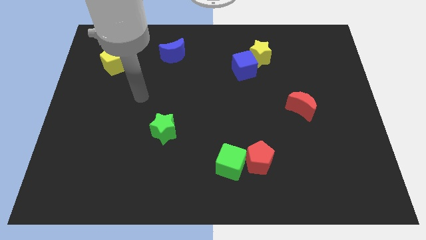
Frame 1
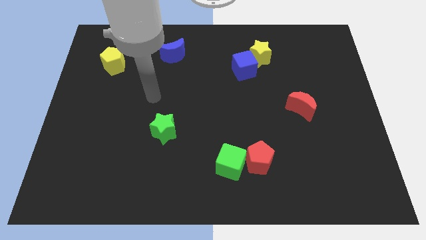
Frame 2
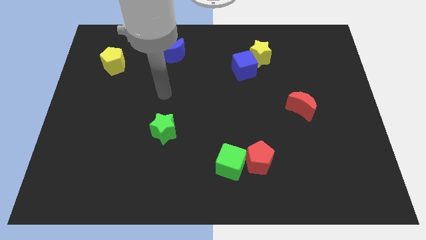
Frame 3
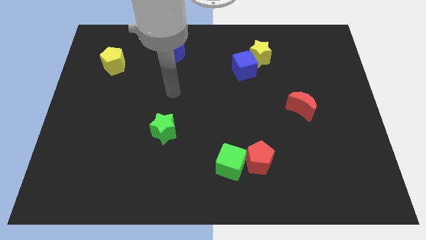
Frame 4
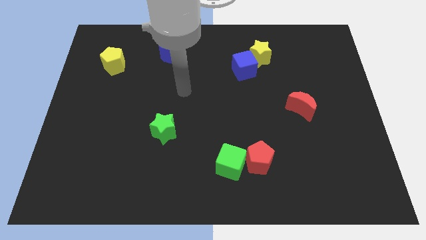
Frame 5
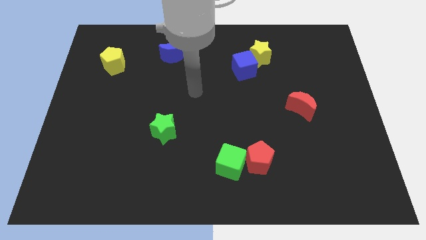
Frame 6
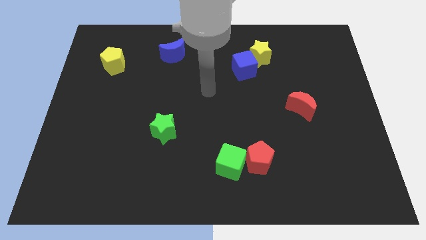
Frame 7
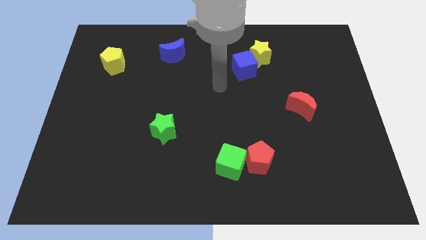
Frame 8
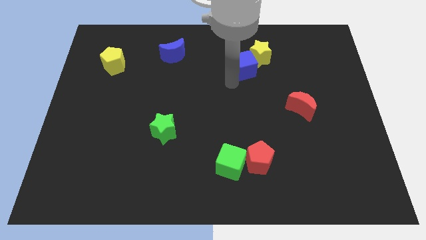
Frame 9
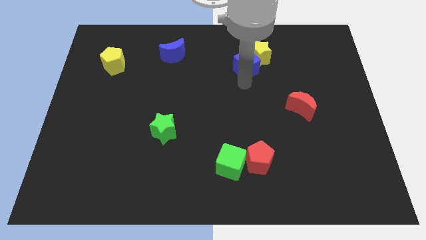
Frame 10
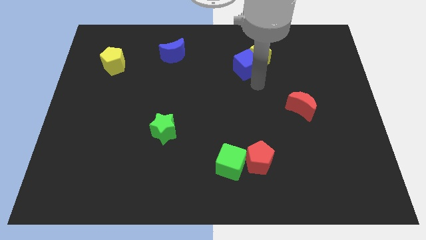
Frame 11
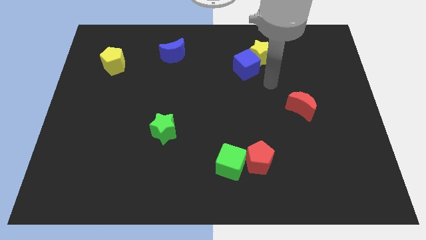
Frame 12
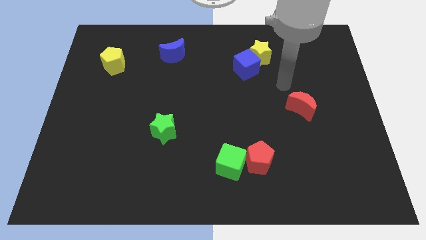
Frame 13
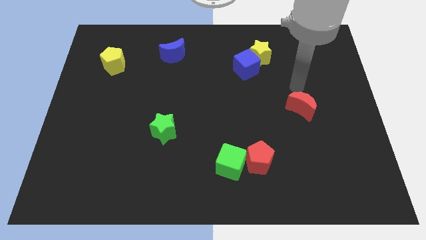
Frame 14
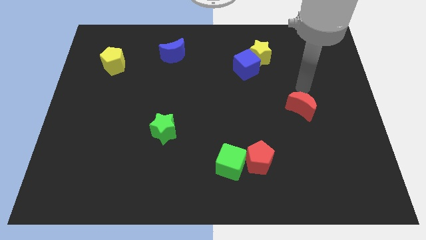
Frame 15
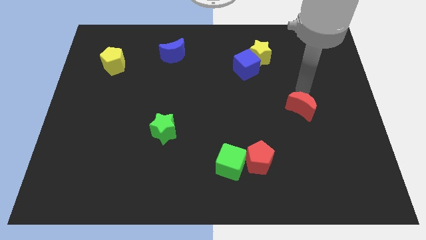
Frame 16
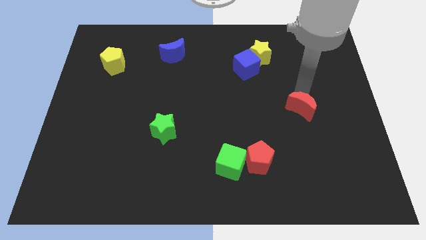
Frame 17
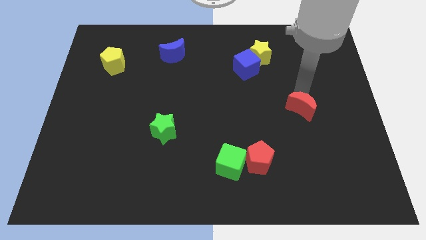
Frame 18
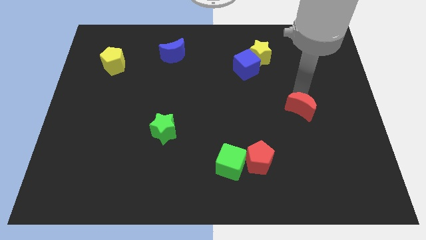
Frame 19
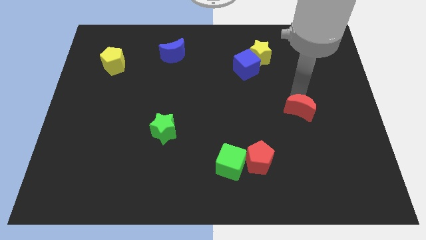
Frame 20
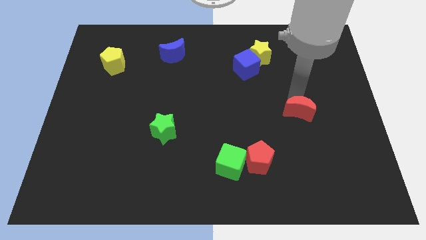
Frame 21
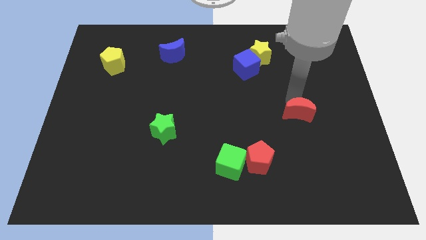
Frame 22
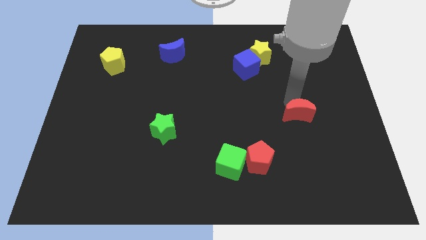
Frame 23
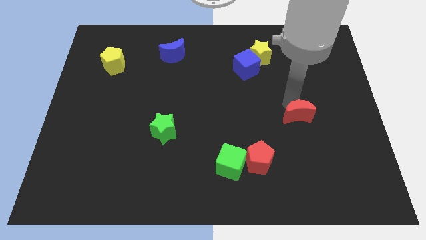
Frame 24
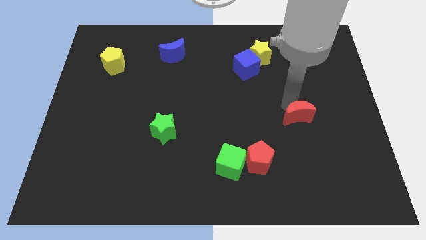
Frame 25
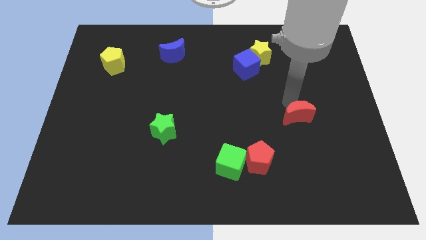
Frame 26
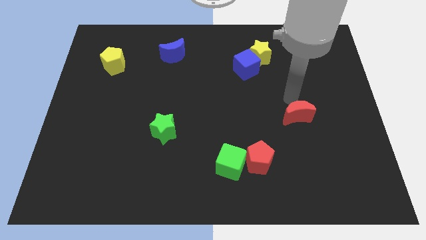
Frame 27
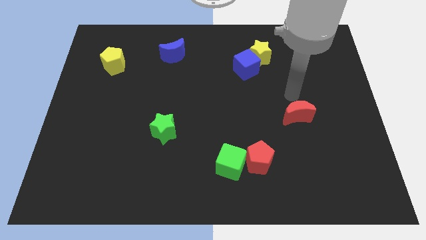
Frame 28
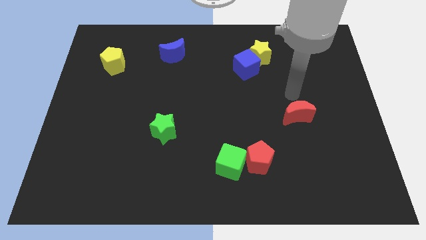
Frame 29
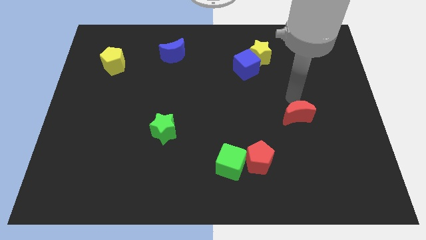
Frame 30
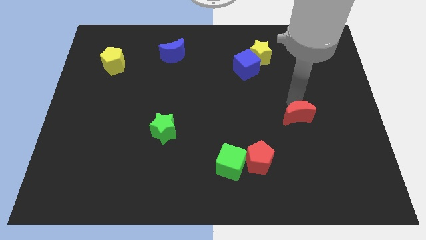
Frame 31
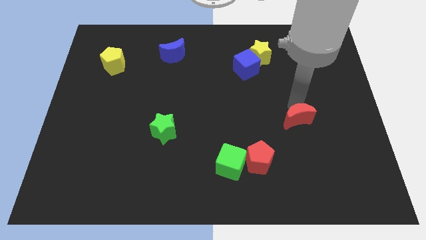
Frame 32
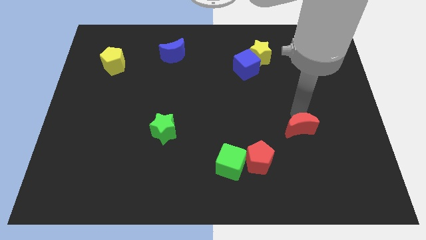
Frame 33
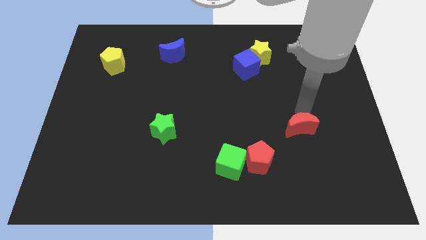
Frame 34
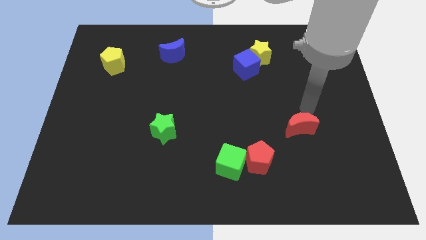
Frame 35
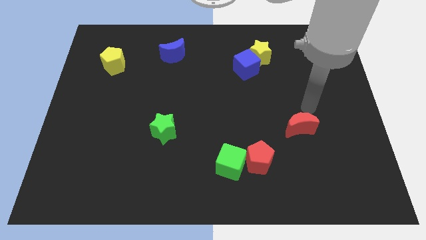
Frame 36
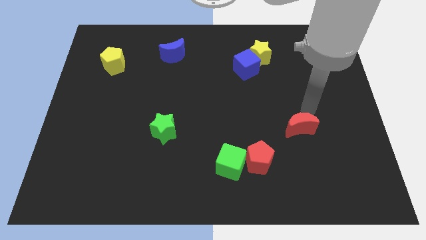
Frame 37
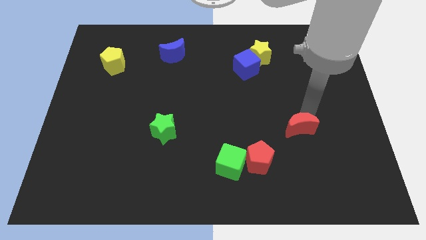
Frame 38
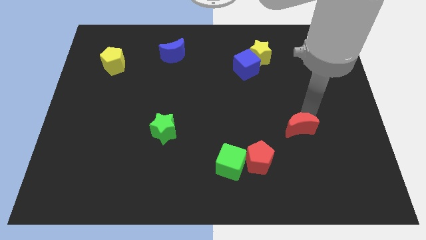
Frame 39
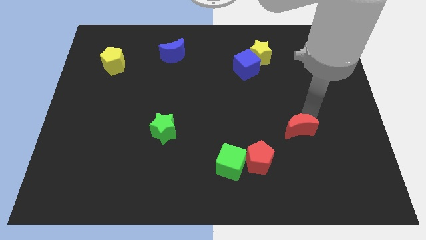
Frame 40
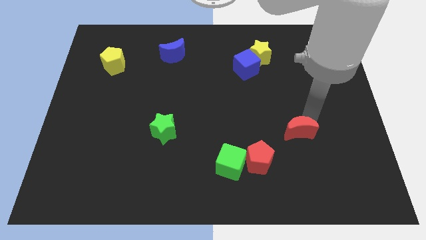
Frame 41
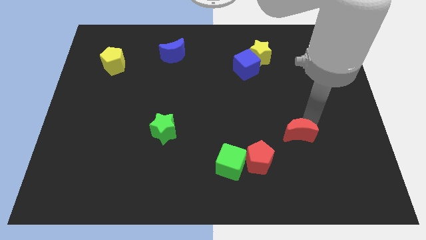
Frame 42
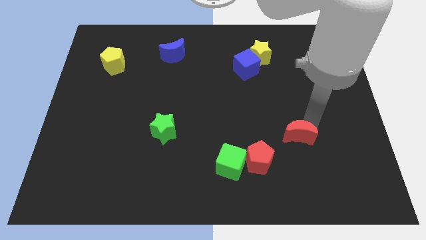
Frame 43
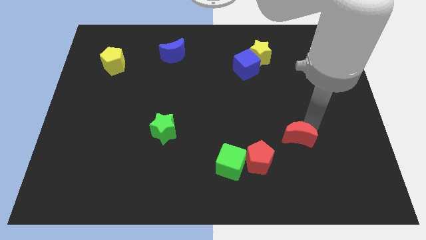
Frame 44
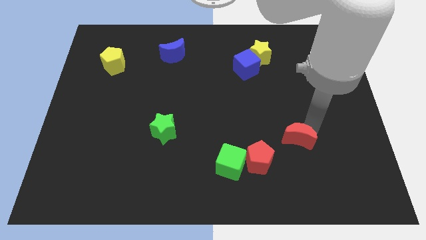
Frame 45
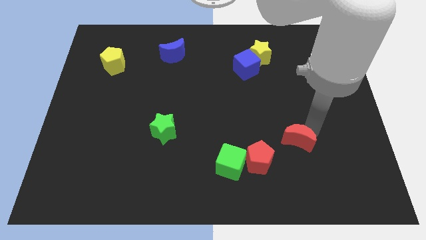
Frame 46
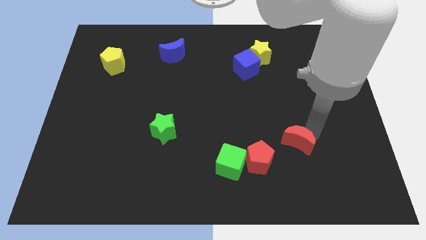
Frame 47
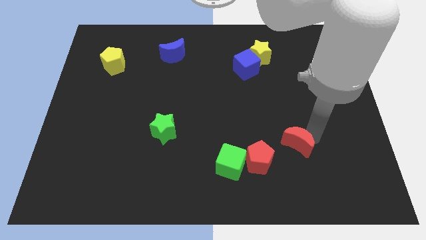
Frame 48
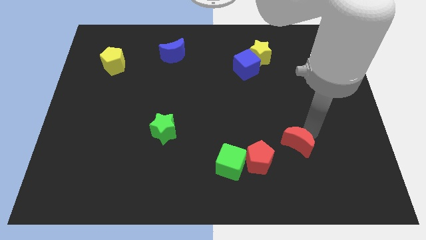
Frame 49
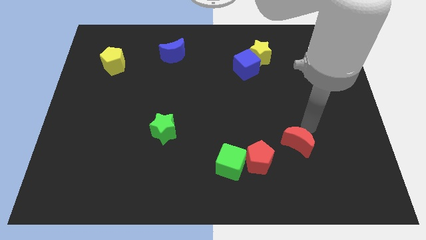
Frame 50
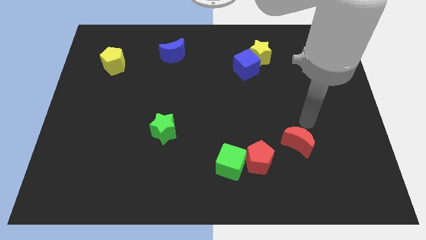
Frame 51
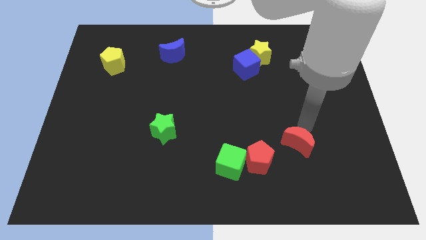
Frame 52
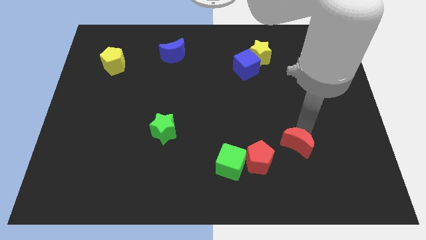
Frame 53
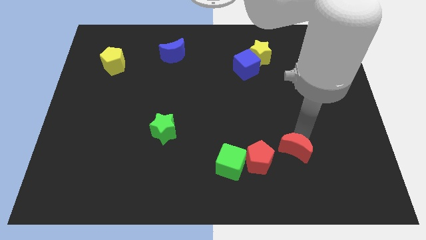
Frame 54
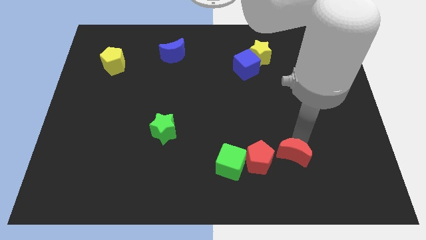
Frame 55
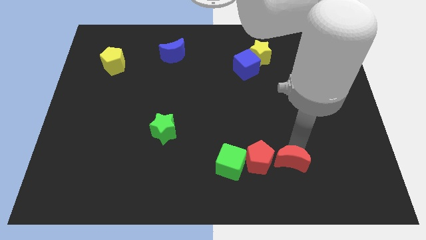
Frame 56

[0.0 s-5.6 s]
slide the red moon to the bottom right side of the red pentagon
